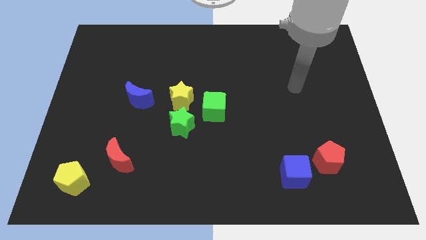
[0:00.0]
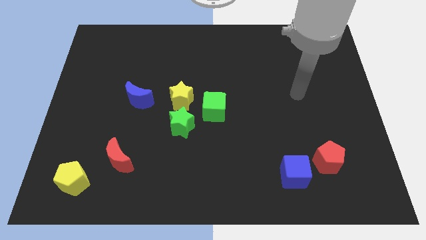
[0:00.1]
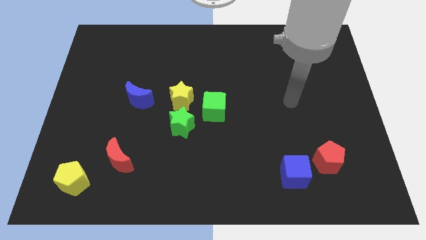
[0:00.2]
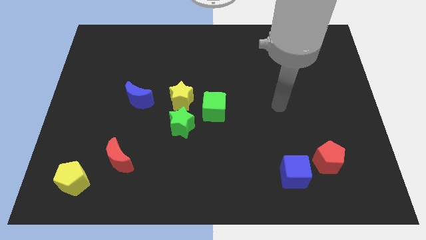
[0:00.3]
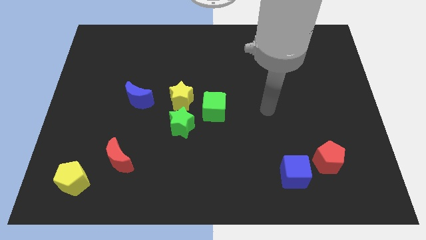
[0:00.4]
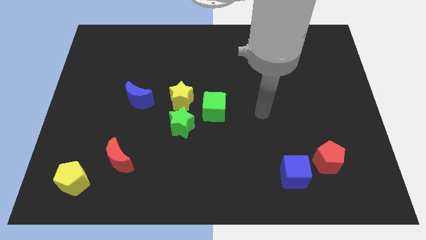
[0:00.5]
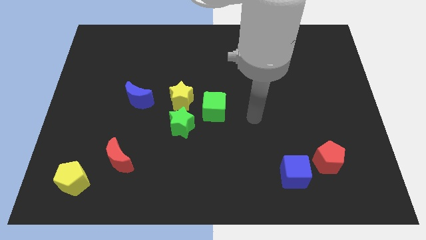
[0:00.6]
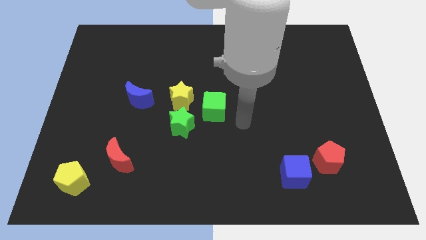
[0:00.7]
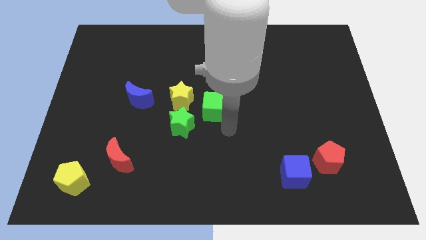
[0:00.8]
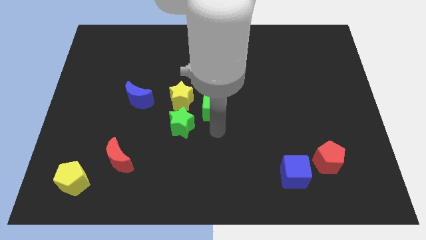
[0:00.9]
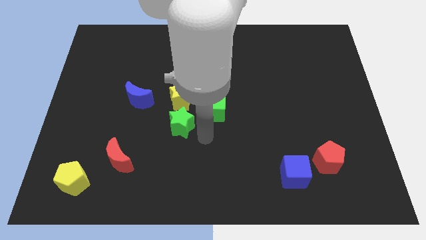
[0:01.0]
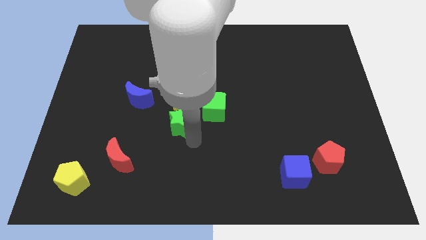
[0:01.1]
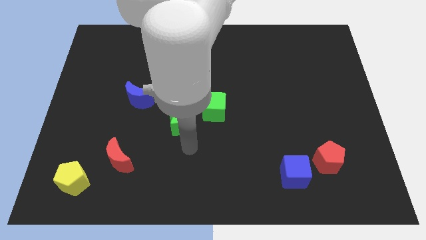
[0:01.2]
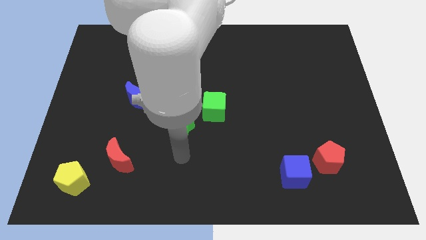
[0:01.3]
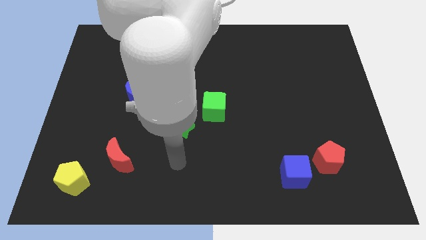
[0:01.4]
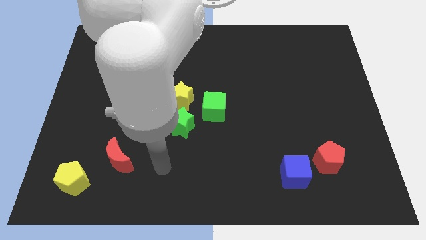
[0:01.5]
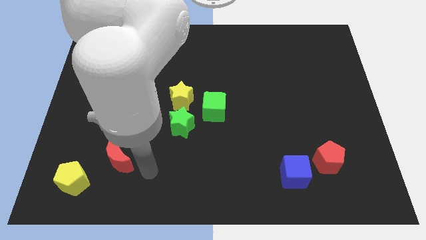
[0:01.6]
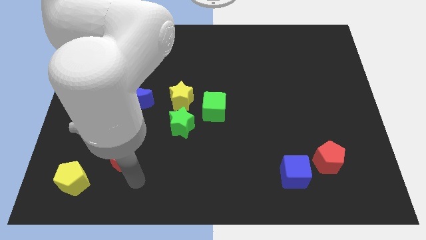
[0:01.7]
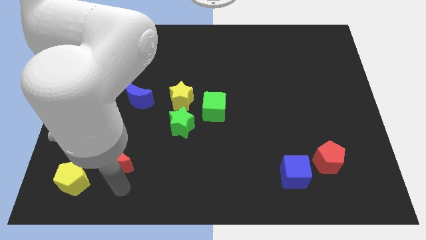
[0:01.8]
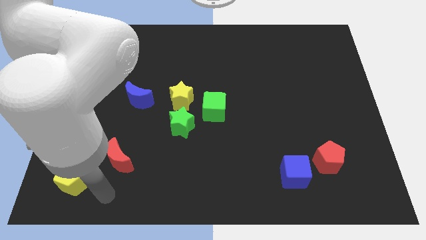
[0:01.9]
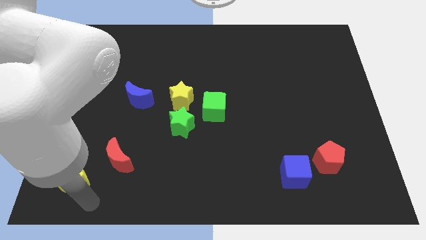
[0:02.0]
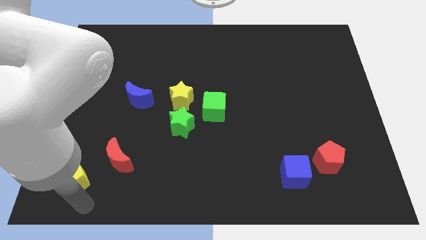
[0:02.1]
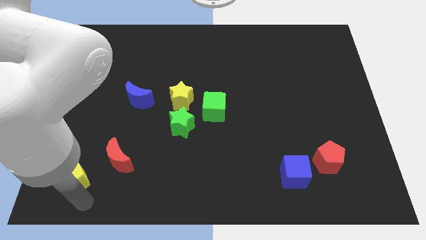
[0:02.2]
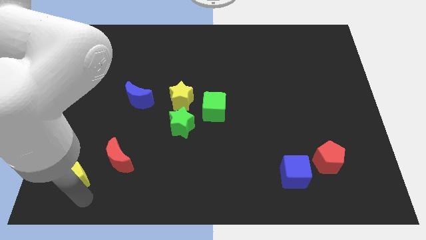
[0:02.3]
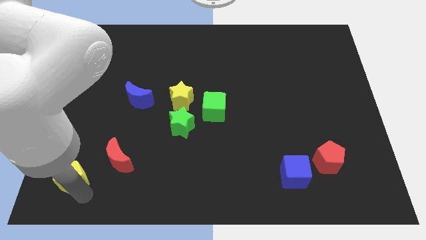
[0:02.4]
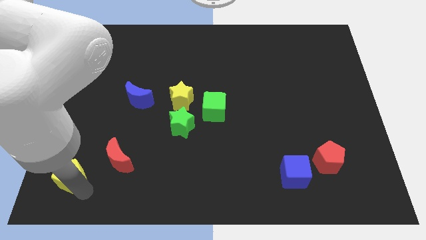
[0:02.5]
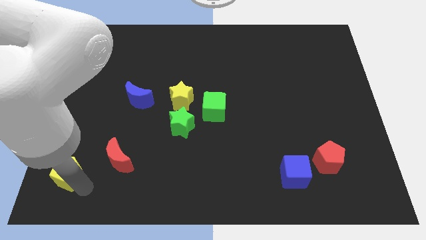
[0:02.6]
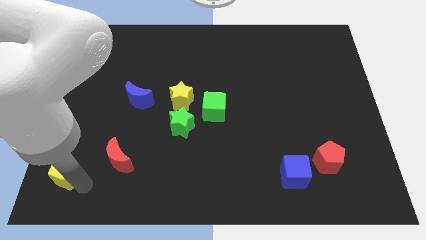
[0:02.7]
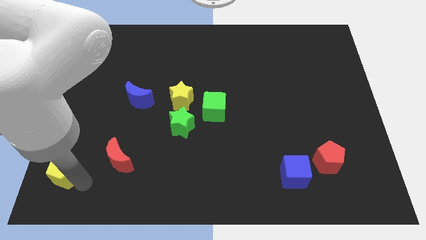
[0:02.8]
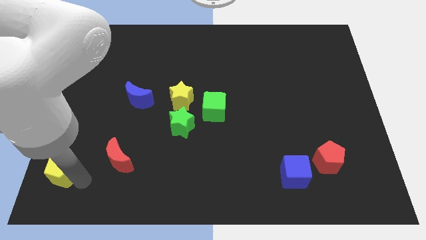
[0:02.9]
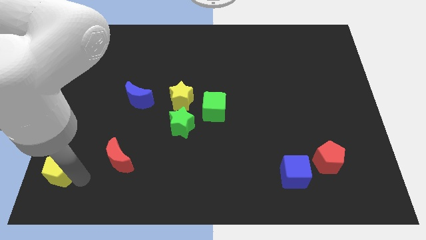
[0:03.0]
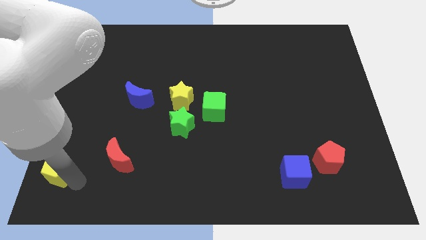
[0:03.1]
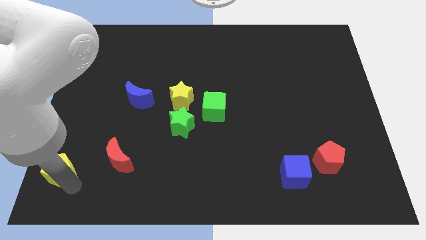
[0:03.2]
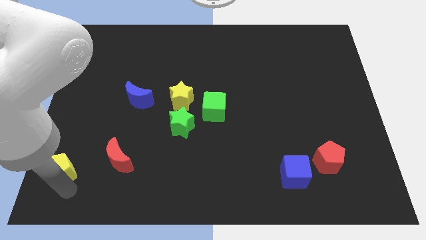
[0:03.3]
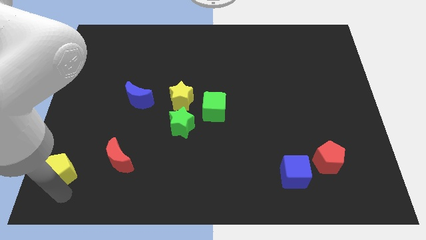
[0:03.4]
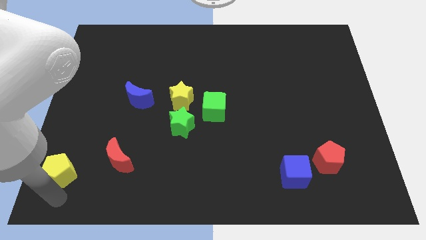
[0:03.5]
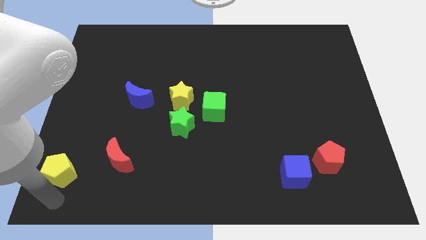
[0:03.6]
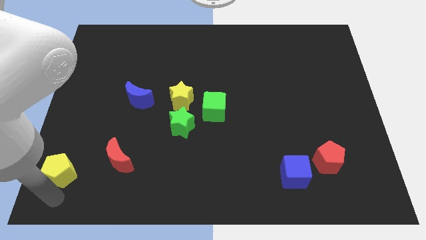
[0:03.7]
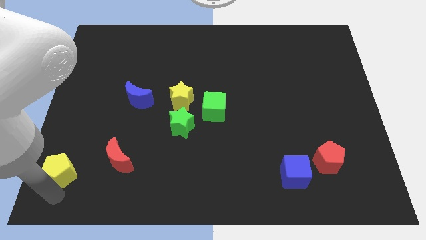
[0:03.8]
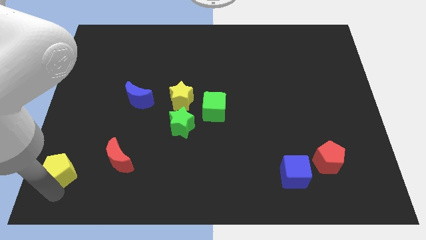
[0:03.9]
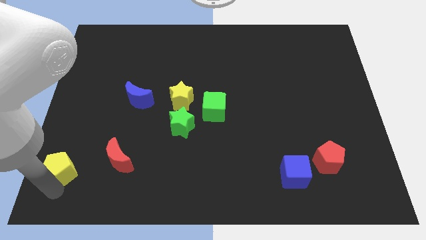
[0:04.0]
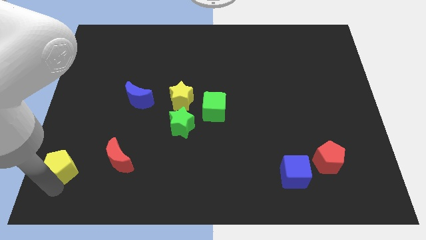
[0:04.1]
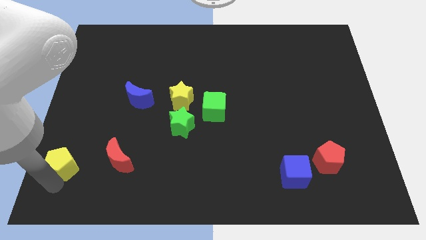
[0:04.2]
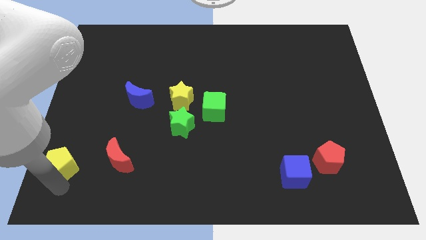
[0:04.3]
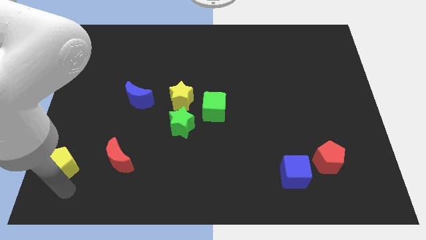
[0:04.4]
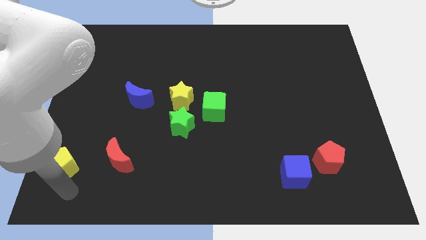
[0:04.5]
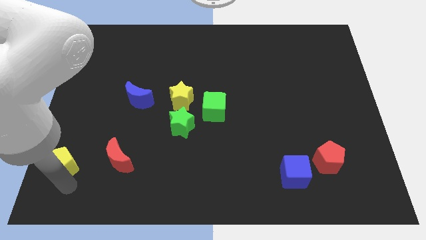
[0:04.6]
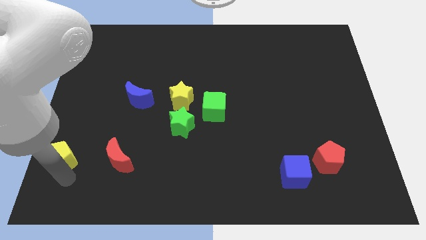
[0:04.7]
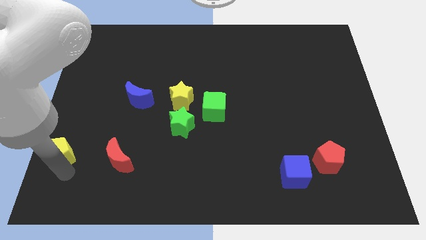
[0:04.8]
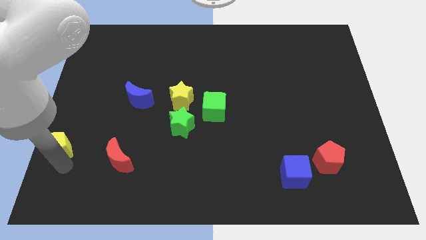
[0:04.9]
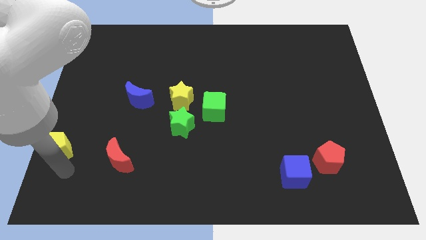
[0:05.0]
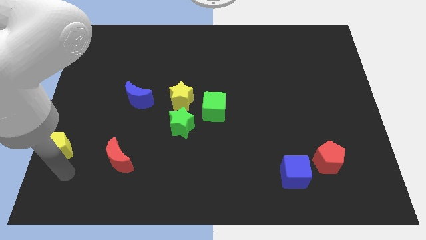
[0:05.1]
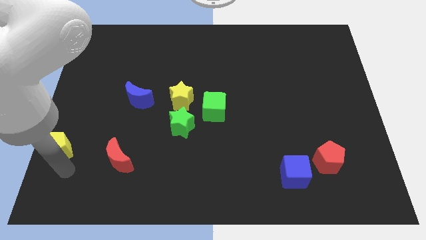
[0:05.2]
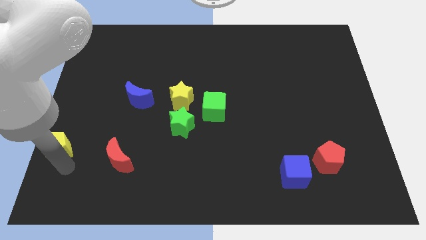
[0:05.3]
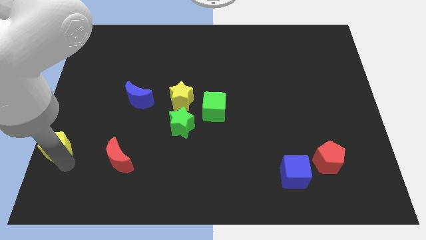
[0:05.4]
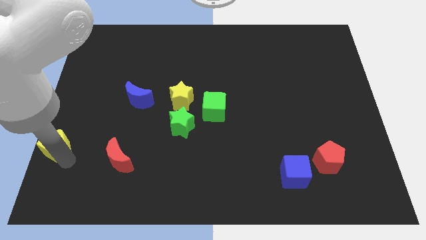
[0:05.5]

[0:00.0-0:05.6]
slide the yellow pentagon to the left side

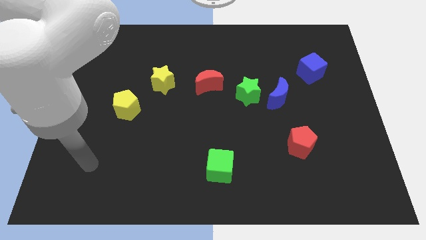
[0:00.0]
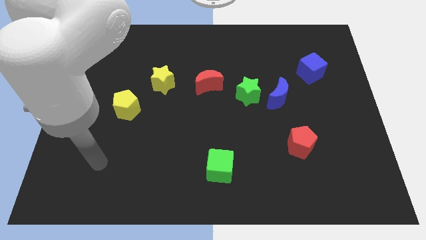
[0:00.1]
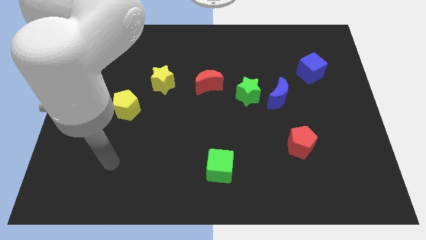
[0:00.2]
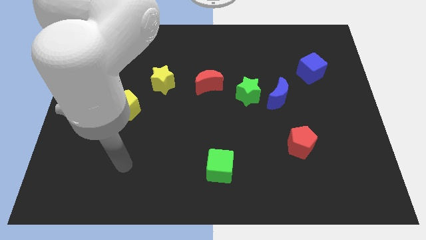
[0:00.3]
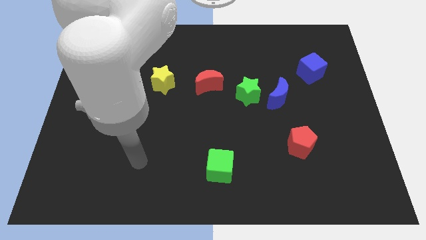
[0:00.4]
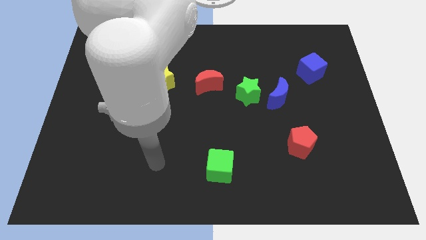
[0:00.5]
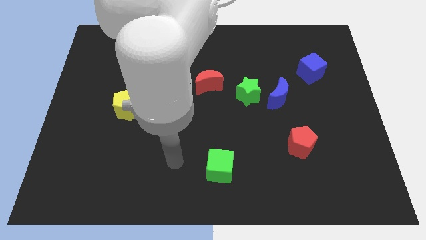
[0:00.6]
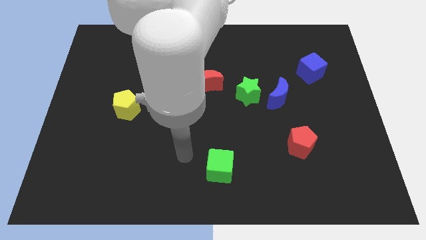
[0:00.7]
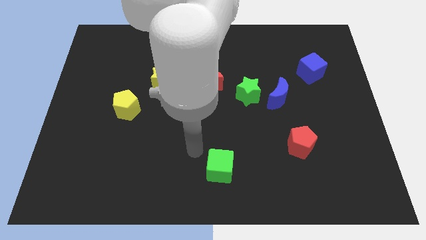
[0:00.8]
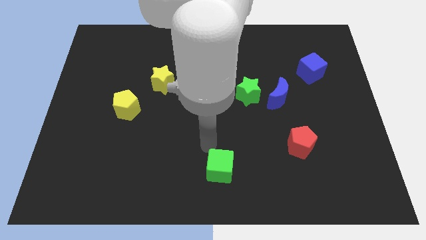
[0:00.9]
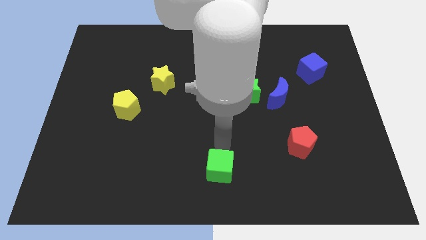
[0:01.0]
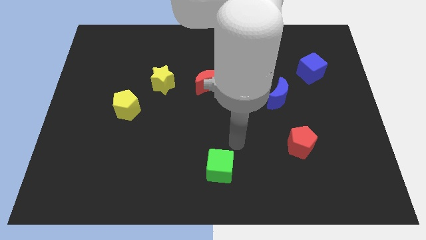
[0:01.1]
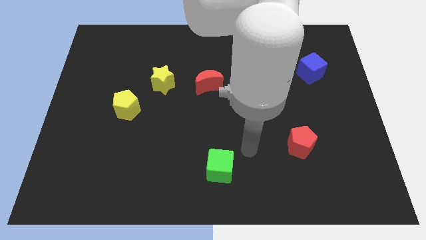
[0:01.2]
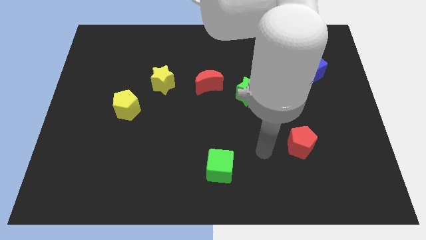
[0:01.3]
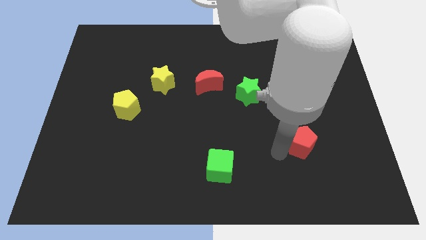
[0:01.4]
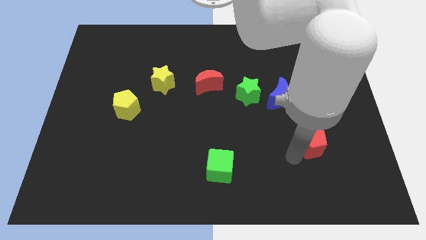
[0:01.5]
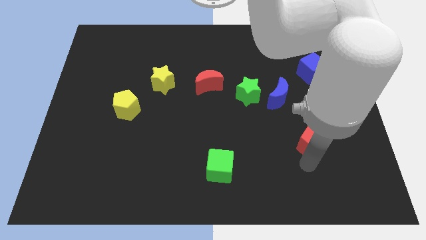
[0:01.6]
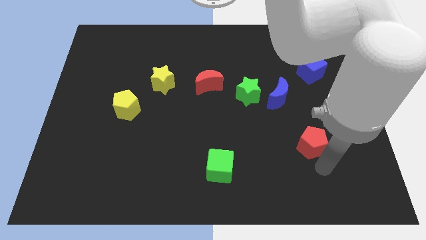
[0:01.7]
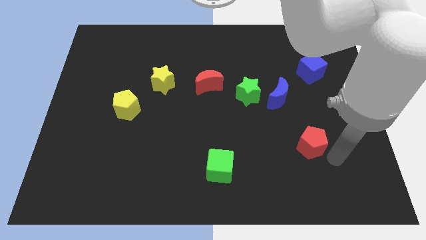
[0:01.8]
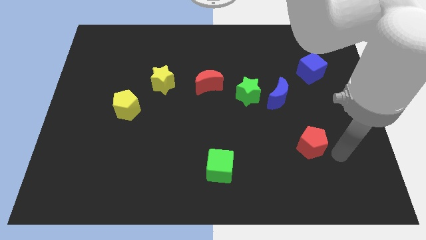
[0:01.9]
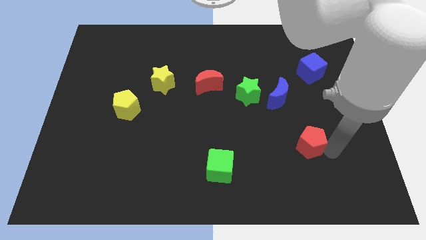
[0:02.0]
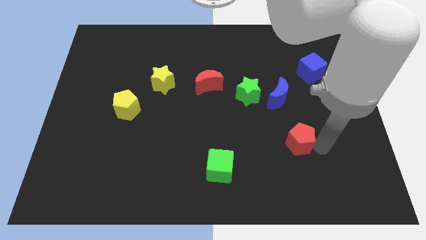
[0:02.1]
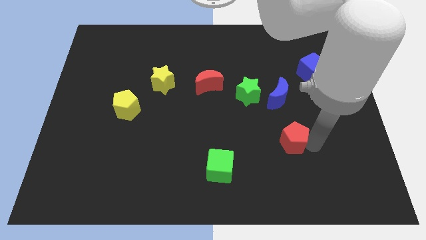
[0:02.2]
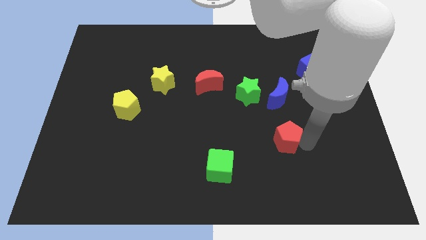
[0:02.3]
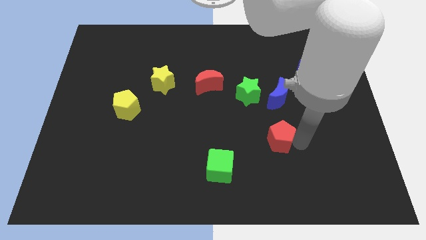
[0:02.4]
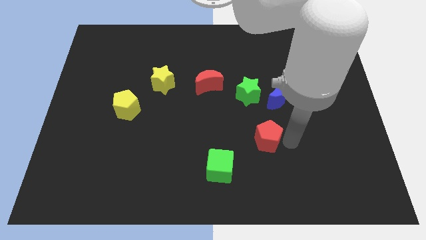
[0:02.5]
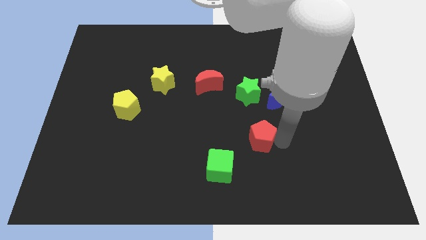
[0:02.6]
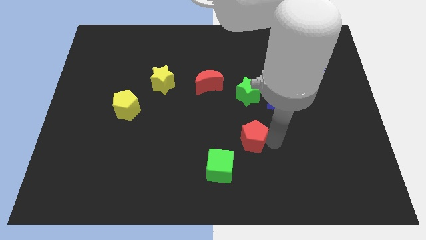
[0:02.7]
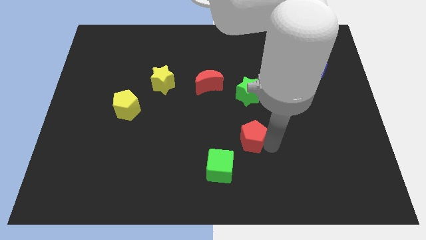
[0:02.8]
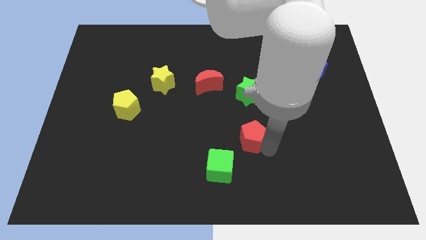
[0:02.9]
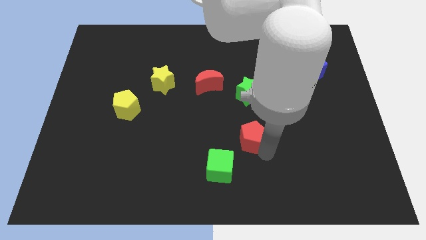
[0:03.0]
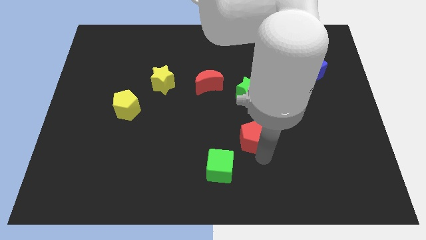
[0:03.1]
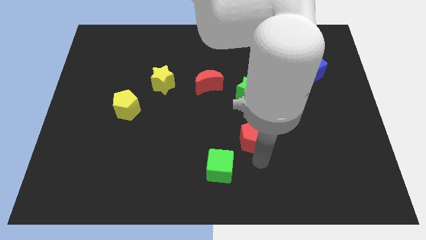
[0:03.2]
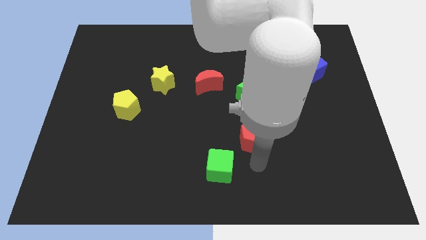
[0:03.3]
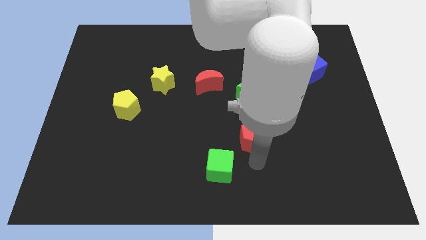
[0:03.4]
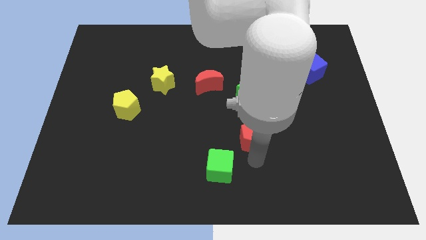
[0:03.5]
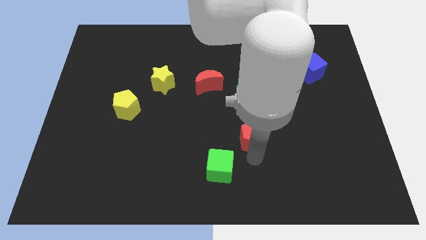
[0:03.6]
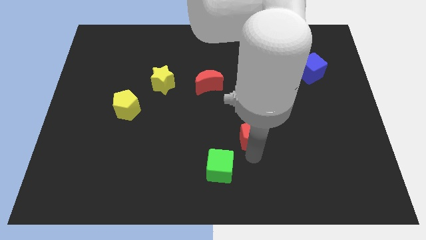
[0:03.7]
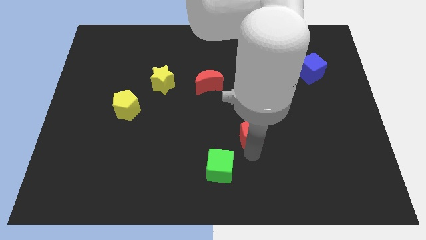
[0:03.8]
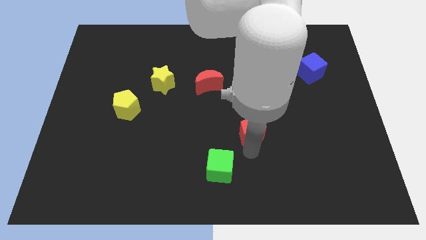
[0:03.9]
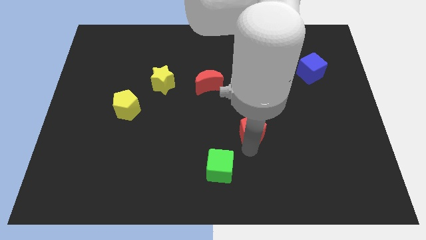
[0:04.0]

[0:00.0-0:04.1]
slide the red pentagon to the center of the board
